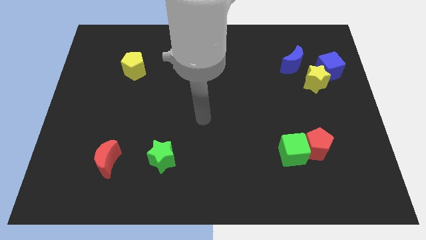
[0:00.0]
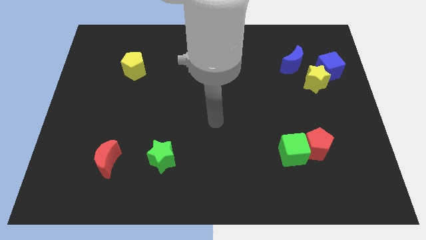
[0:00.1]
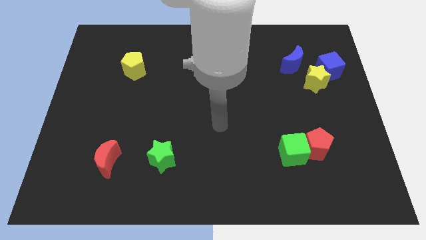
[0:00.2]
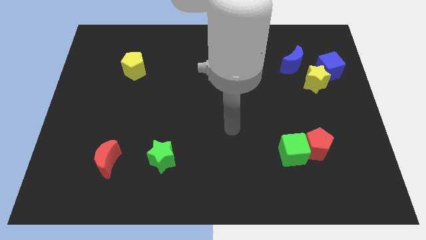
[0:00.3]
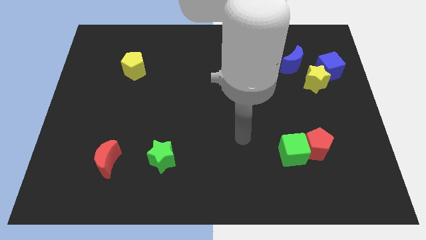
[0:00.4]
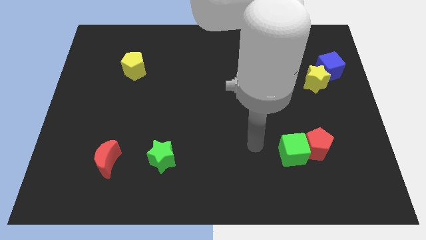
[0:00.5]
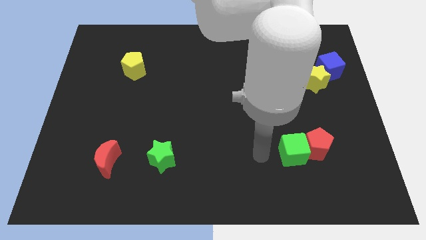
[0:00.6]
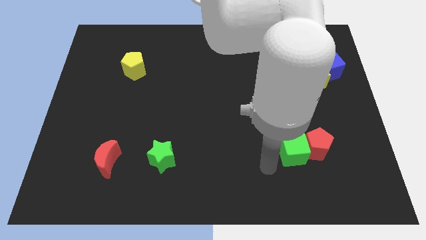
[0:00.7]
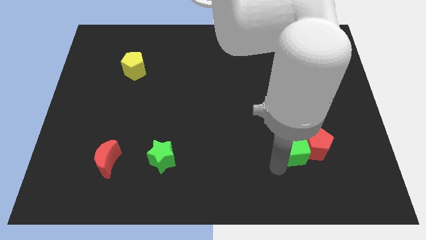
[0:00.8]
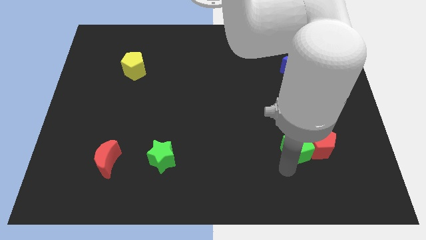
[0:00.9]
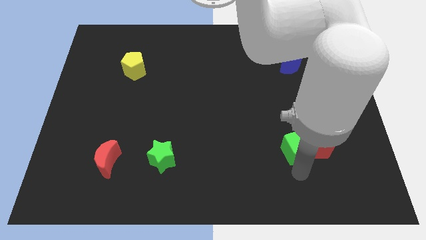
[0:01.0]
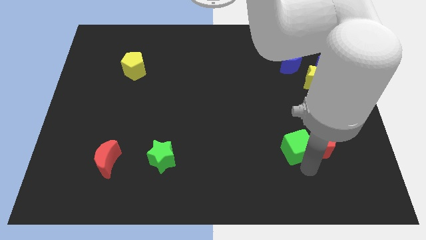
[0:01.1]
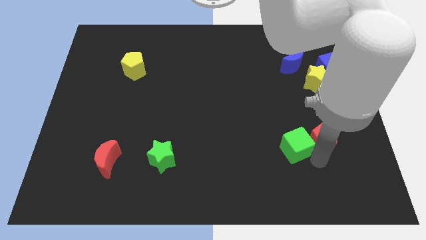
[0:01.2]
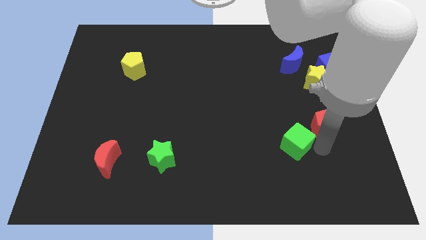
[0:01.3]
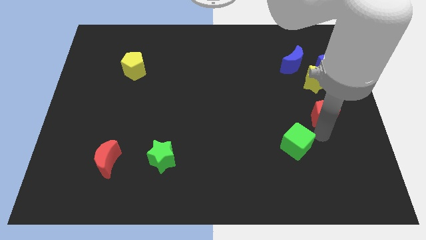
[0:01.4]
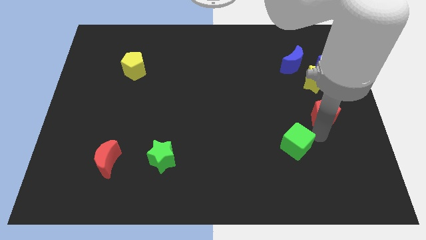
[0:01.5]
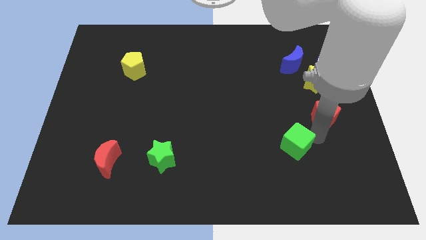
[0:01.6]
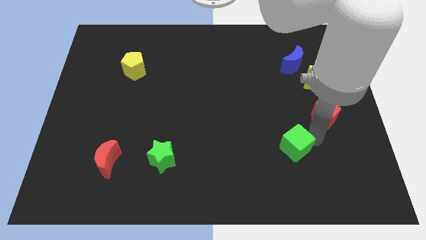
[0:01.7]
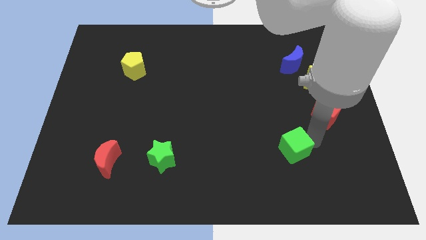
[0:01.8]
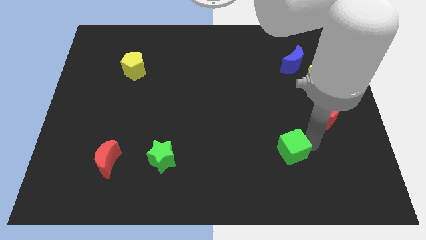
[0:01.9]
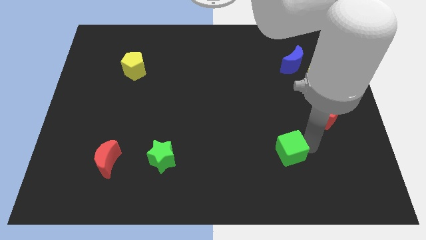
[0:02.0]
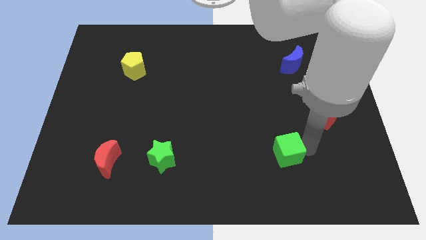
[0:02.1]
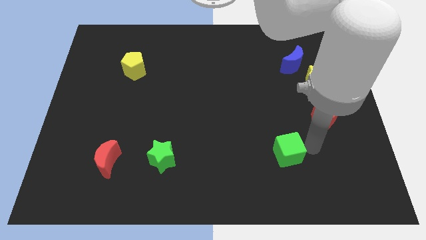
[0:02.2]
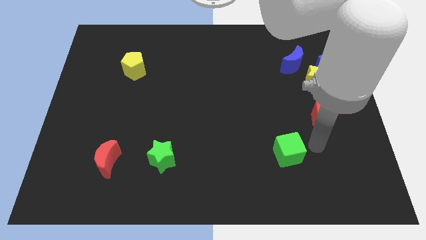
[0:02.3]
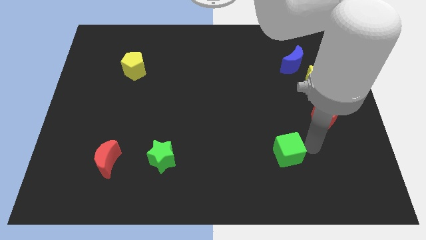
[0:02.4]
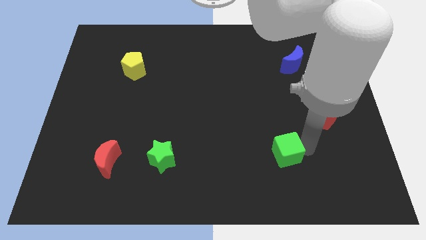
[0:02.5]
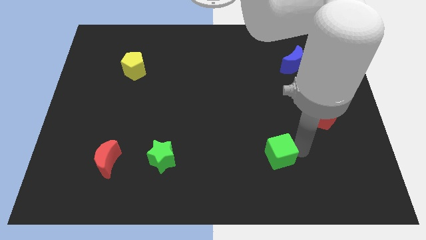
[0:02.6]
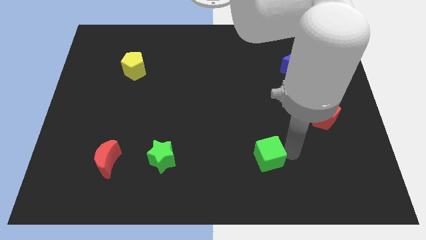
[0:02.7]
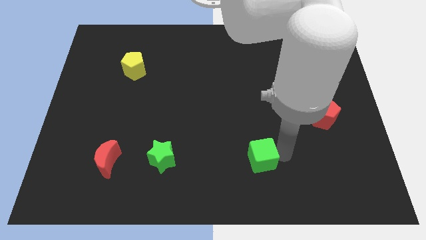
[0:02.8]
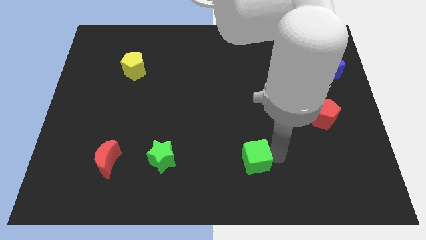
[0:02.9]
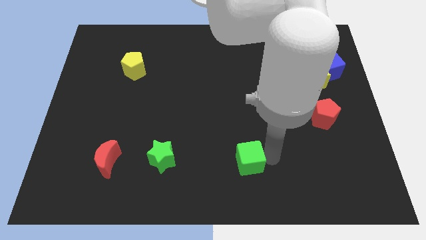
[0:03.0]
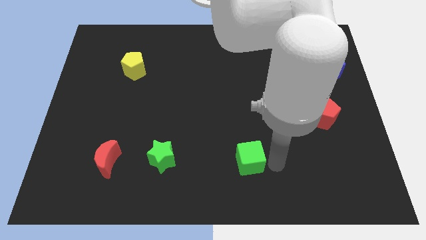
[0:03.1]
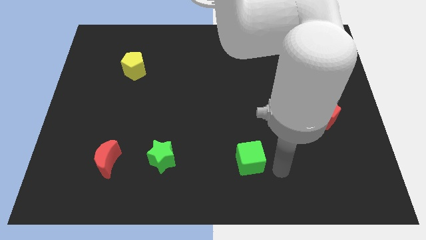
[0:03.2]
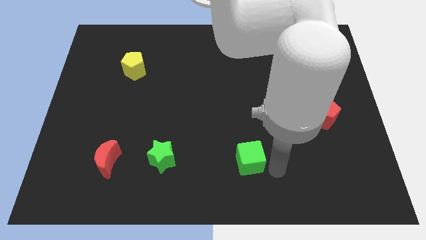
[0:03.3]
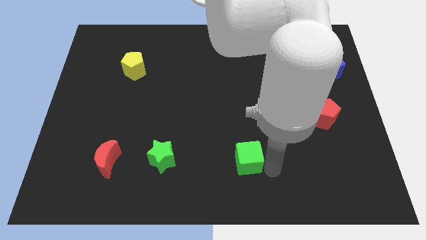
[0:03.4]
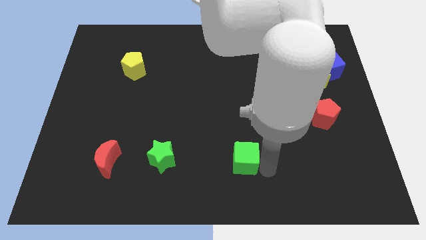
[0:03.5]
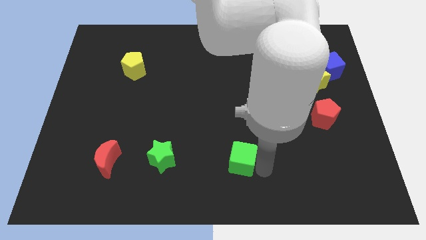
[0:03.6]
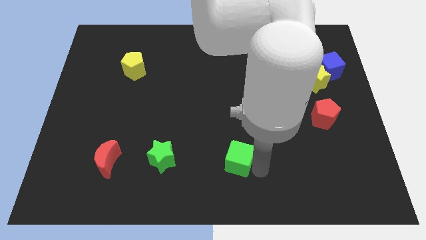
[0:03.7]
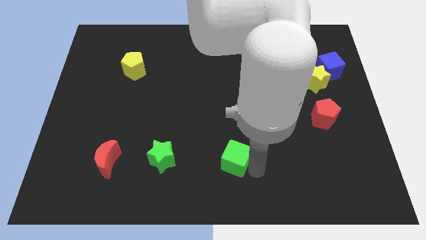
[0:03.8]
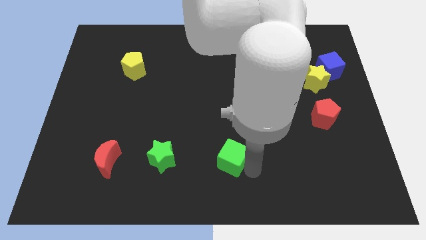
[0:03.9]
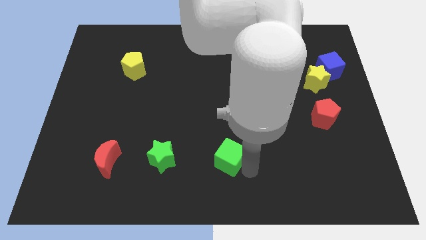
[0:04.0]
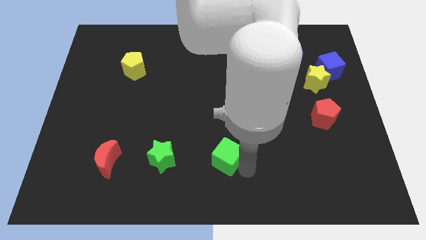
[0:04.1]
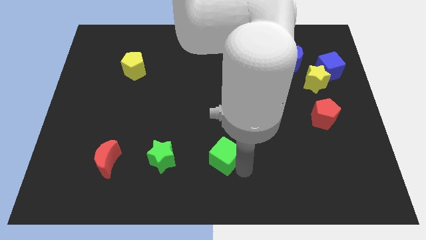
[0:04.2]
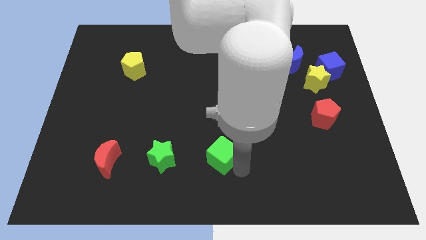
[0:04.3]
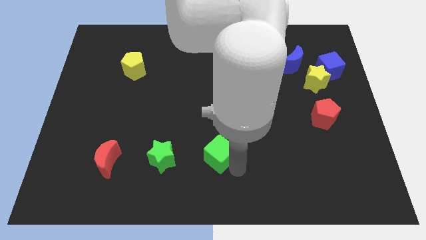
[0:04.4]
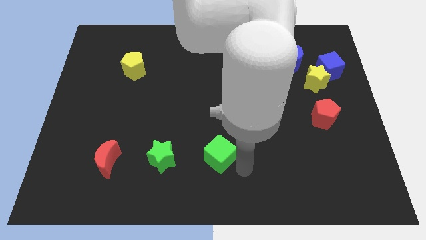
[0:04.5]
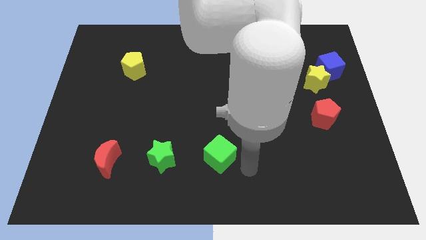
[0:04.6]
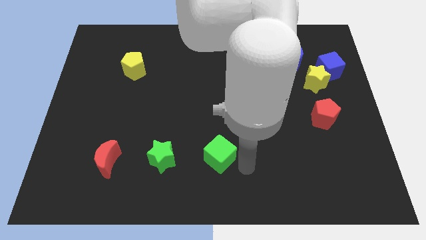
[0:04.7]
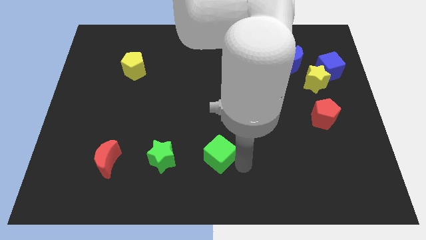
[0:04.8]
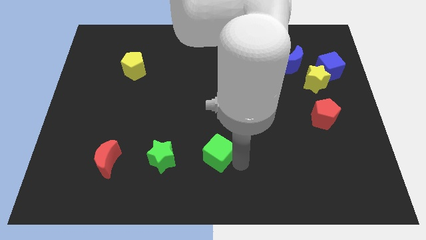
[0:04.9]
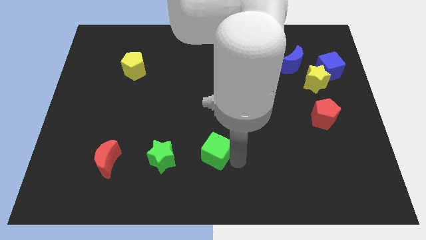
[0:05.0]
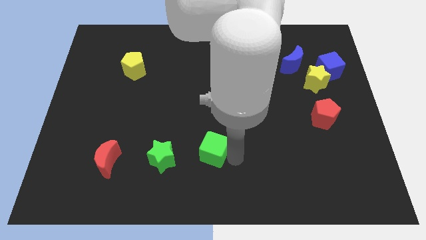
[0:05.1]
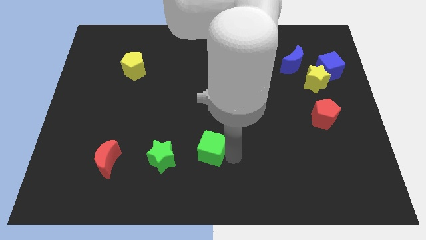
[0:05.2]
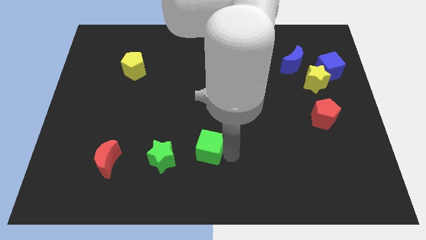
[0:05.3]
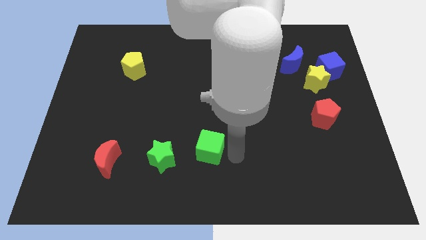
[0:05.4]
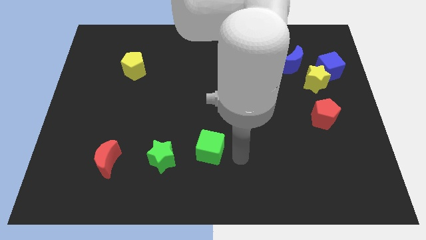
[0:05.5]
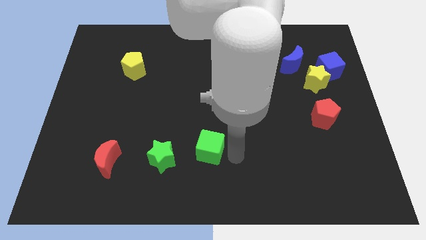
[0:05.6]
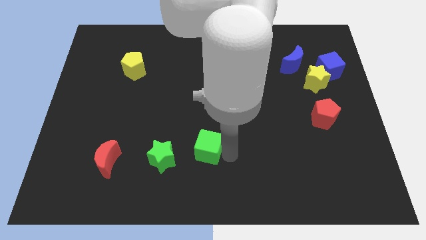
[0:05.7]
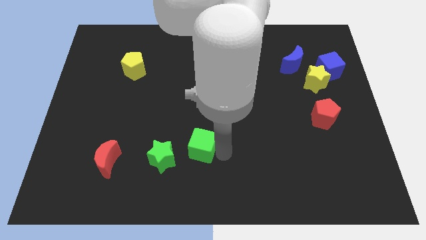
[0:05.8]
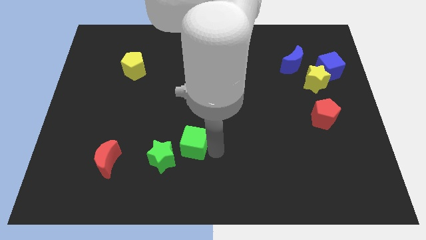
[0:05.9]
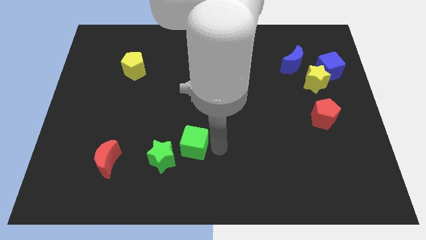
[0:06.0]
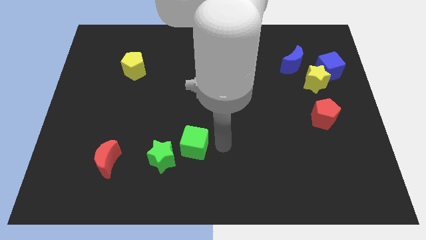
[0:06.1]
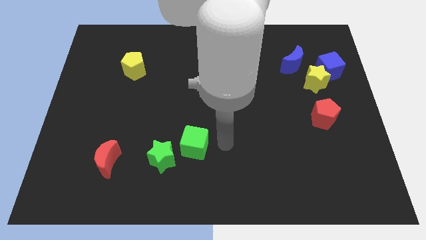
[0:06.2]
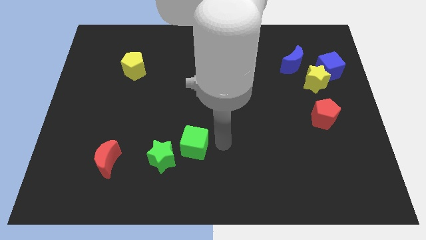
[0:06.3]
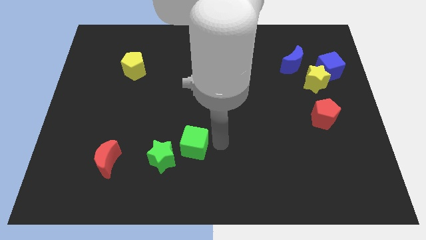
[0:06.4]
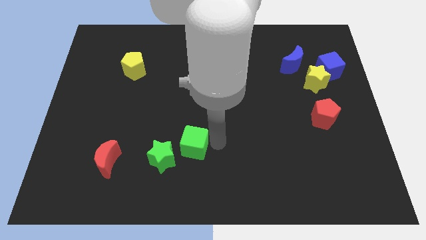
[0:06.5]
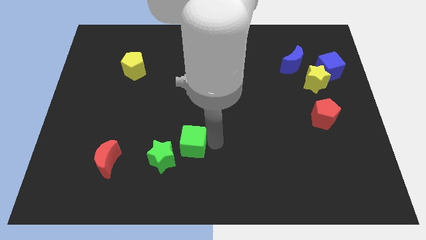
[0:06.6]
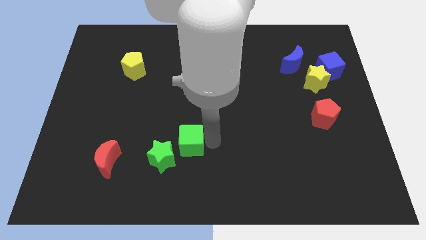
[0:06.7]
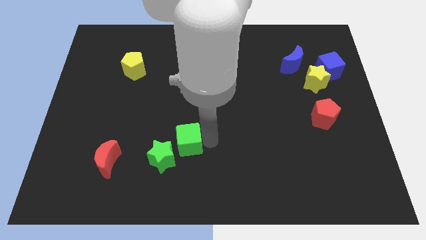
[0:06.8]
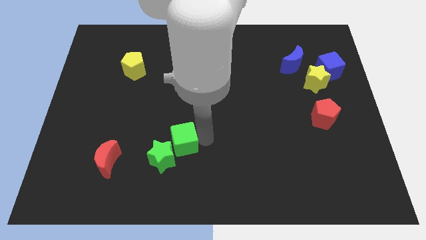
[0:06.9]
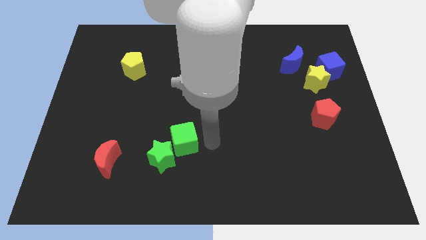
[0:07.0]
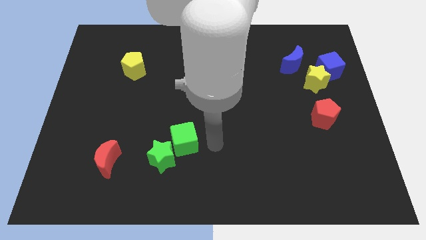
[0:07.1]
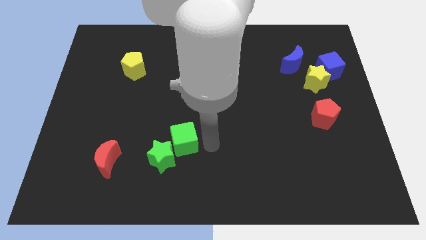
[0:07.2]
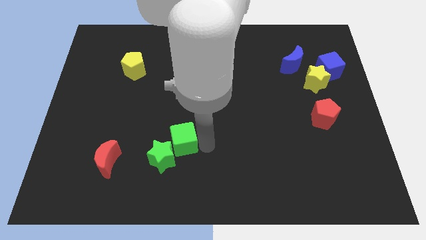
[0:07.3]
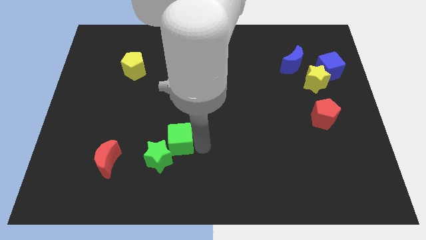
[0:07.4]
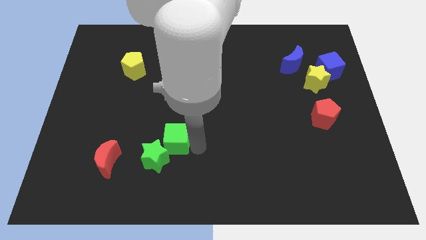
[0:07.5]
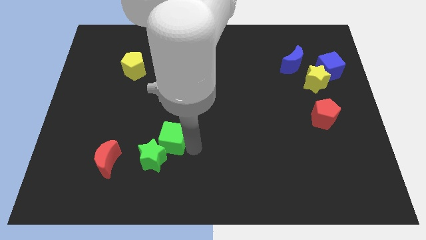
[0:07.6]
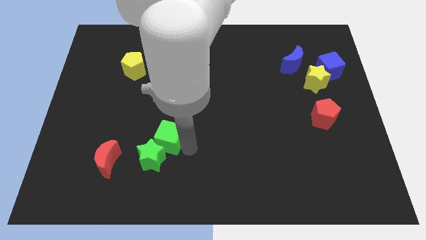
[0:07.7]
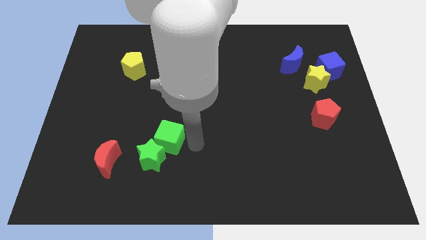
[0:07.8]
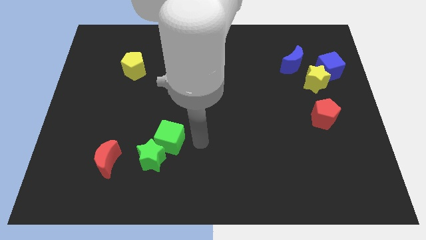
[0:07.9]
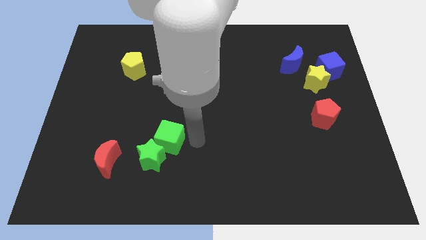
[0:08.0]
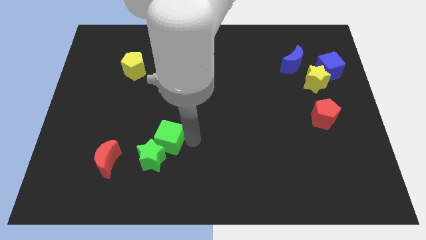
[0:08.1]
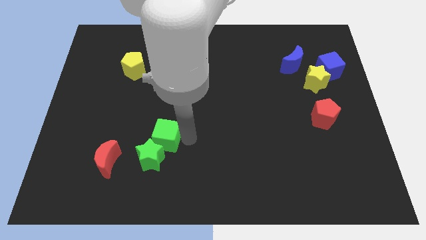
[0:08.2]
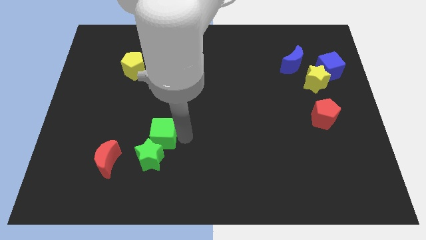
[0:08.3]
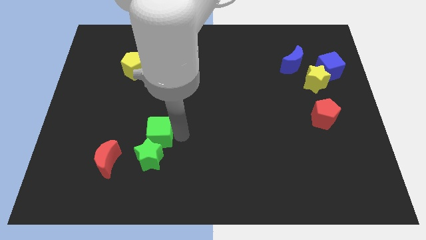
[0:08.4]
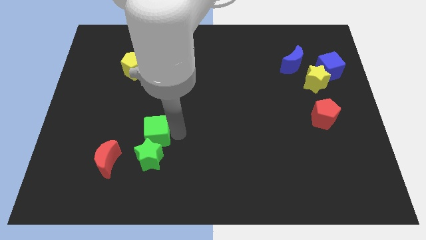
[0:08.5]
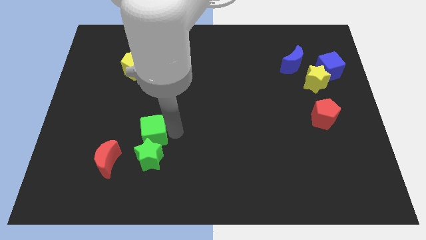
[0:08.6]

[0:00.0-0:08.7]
push the green cube to the top left side of the green star
